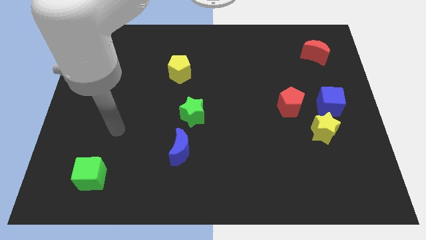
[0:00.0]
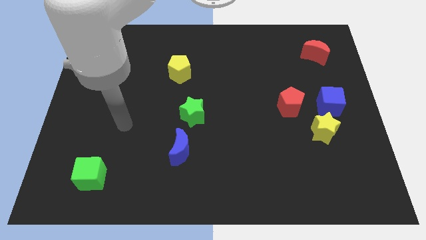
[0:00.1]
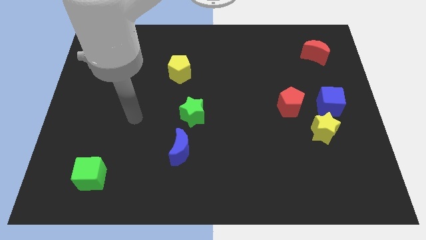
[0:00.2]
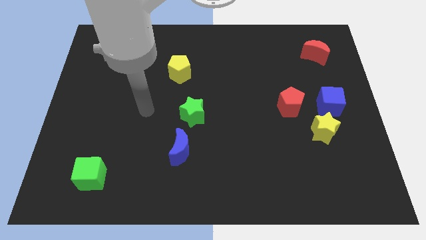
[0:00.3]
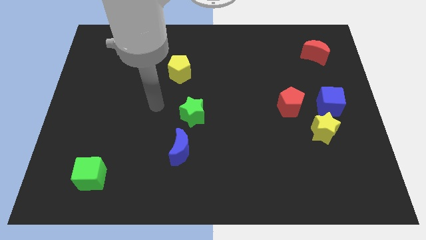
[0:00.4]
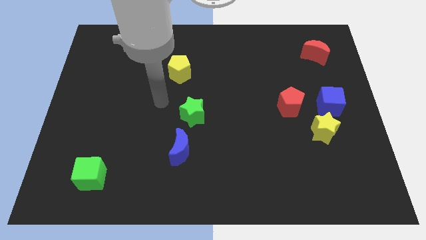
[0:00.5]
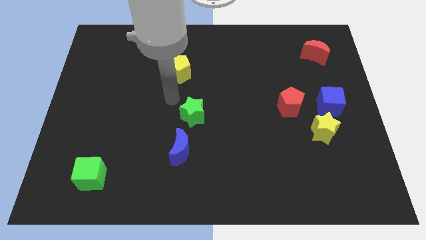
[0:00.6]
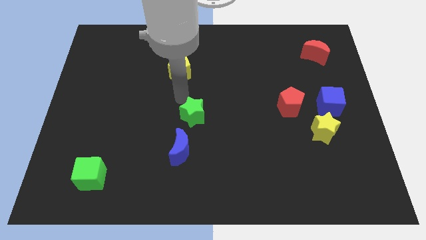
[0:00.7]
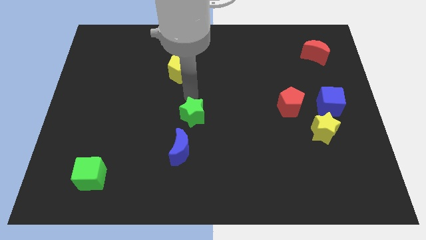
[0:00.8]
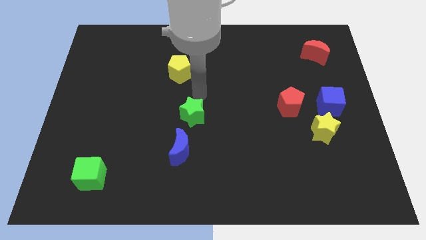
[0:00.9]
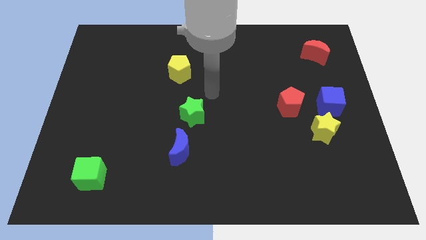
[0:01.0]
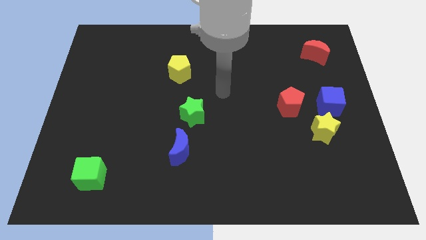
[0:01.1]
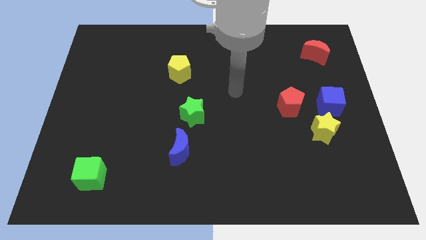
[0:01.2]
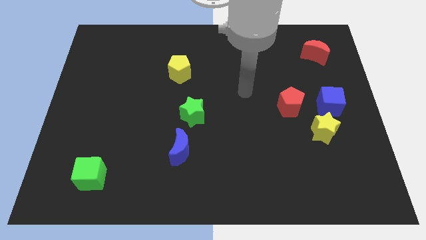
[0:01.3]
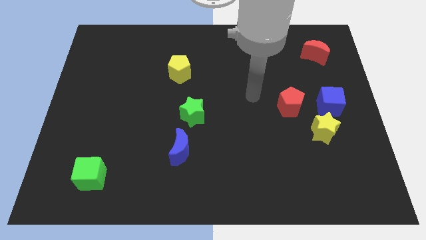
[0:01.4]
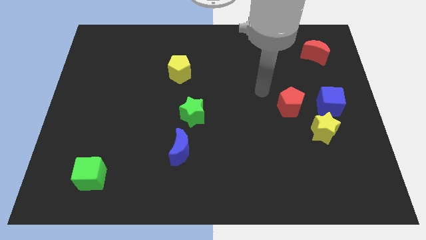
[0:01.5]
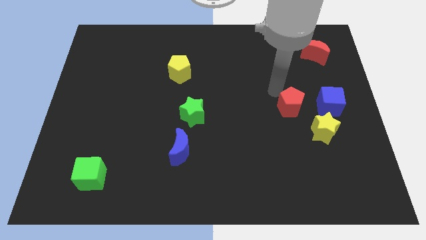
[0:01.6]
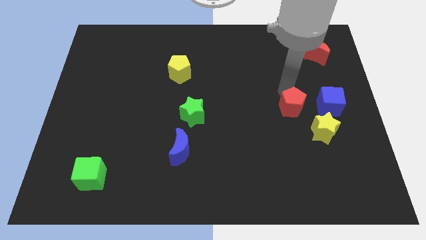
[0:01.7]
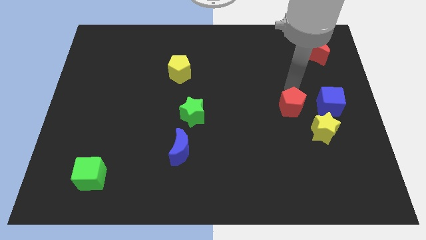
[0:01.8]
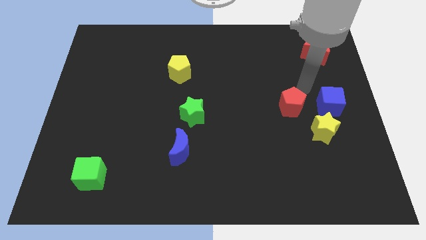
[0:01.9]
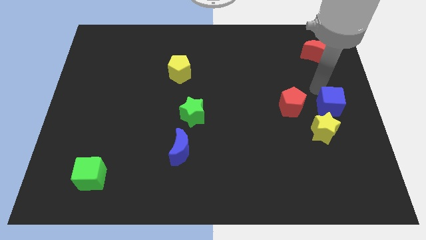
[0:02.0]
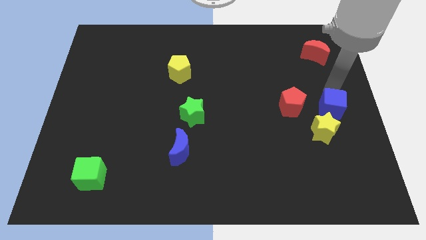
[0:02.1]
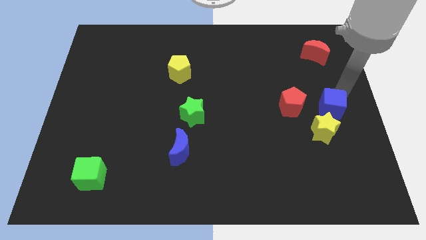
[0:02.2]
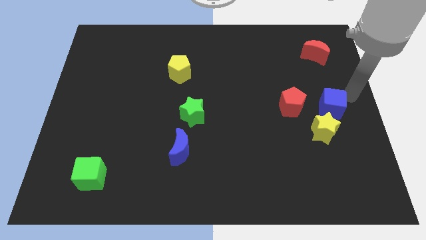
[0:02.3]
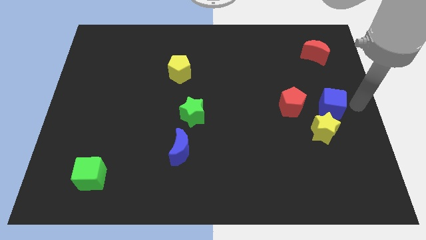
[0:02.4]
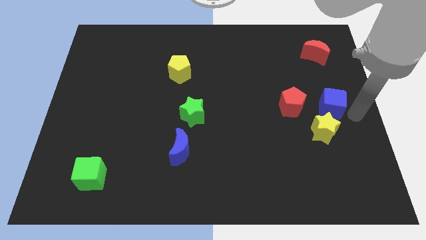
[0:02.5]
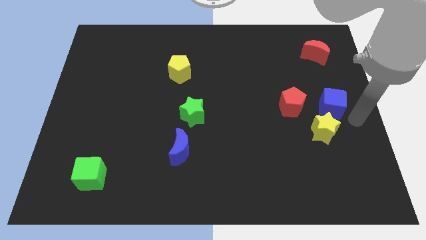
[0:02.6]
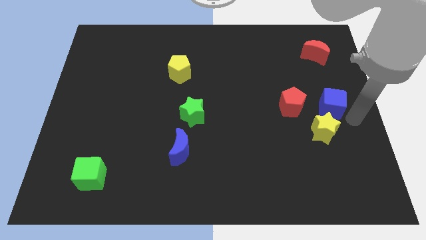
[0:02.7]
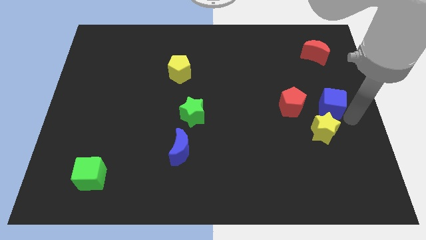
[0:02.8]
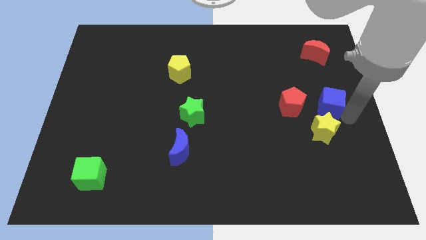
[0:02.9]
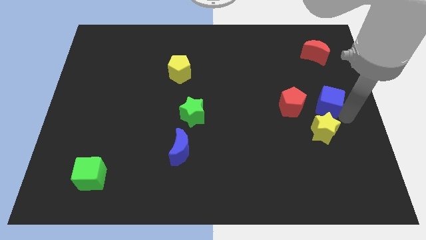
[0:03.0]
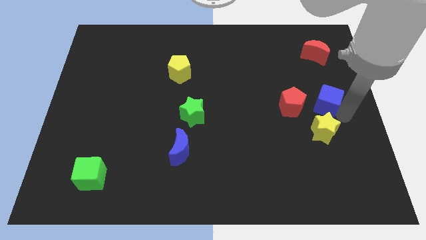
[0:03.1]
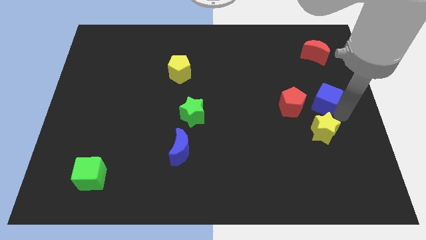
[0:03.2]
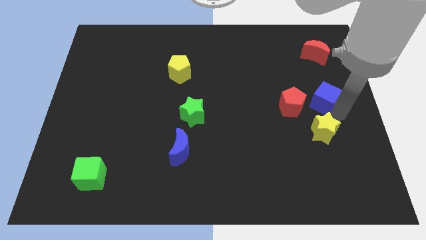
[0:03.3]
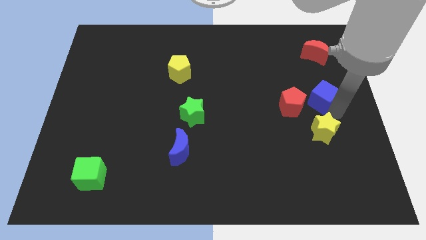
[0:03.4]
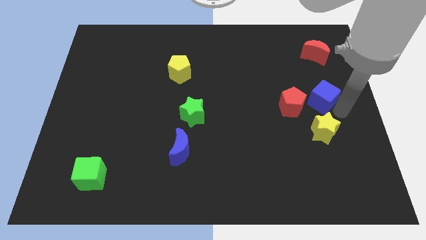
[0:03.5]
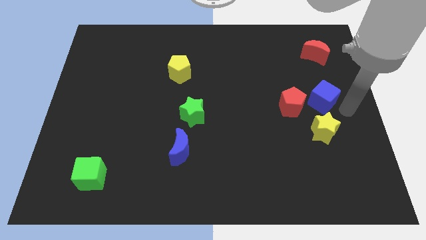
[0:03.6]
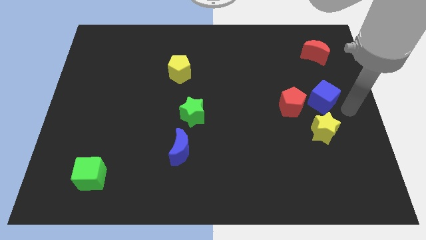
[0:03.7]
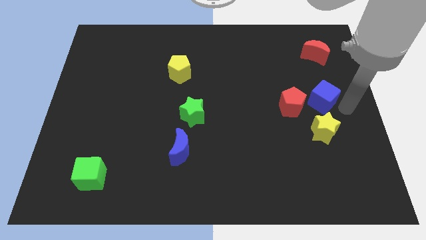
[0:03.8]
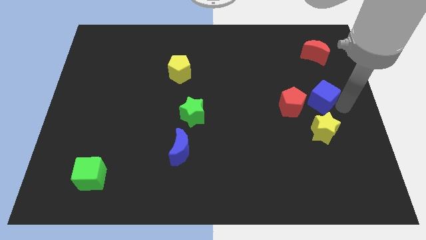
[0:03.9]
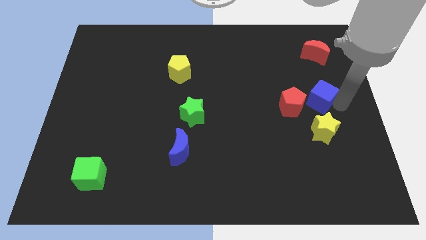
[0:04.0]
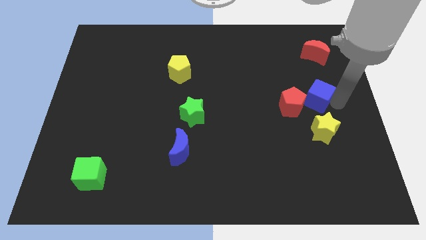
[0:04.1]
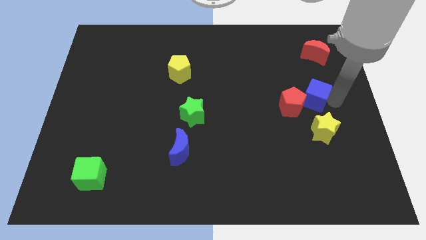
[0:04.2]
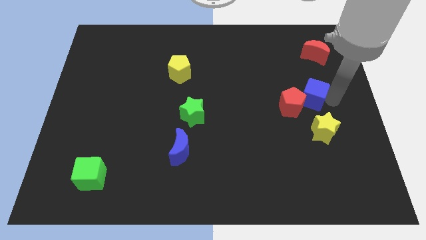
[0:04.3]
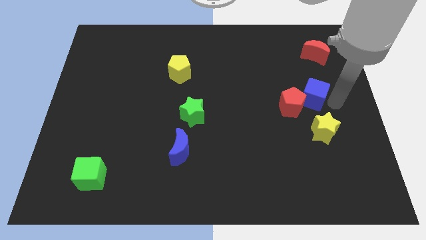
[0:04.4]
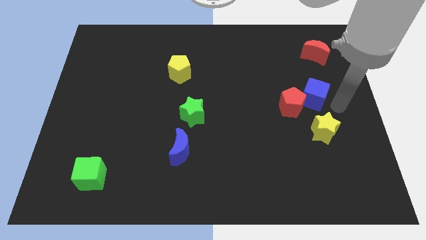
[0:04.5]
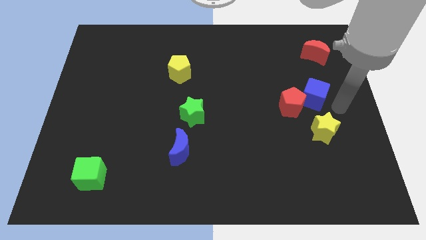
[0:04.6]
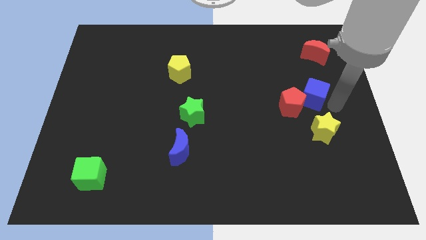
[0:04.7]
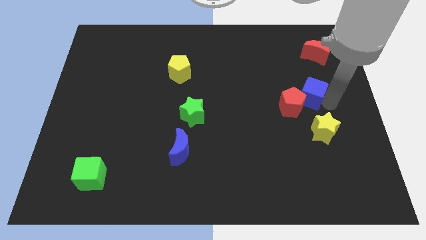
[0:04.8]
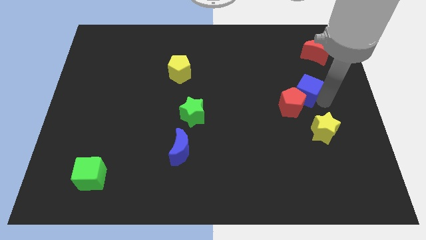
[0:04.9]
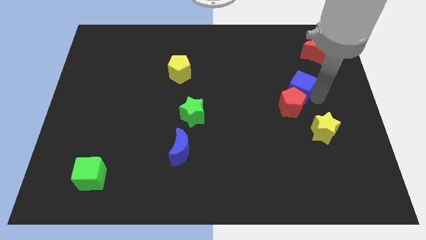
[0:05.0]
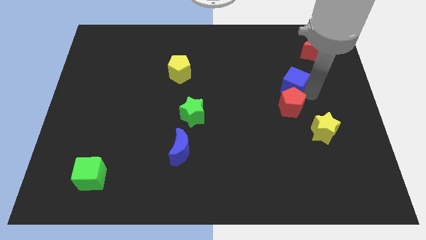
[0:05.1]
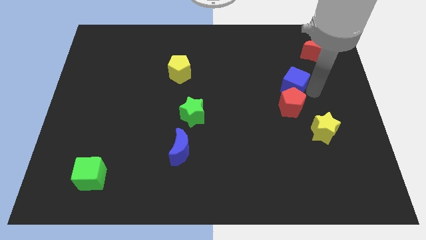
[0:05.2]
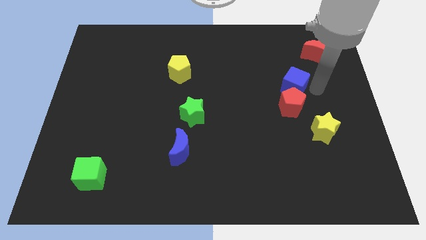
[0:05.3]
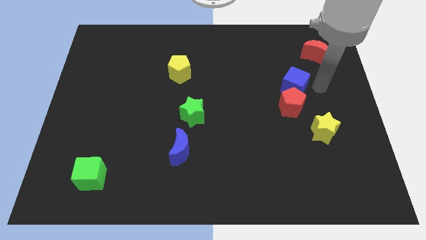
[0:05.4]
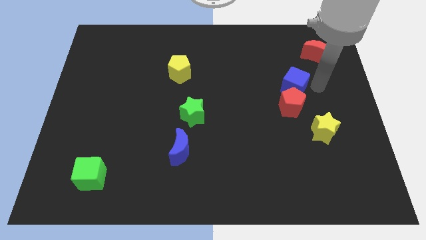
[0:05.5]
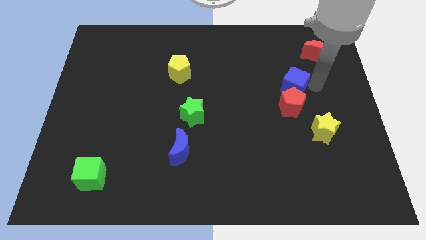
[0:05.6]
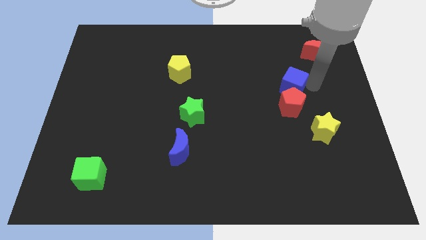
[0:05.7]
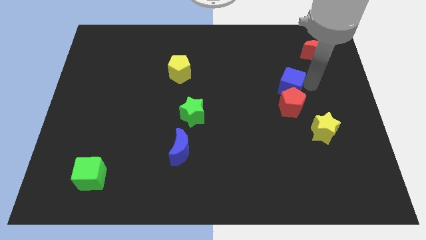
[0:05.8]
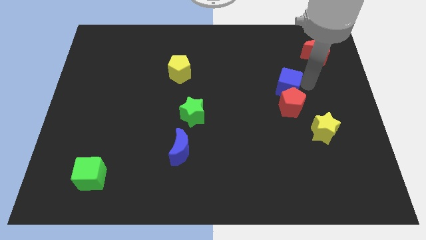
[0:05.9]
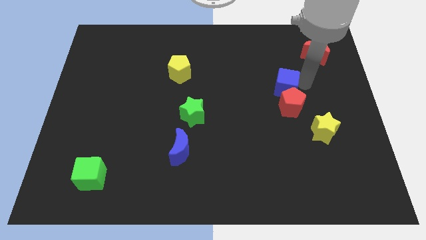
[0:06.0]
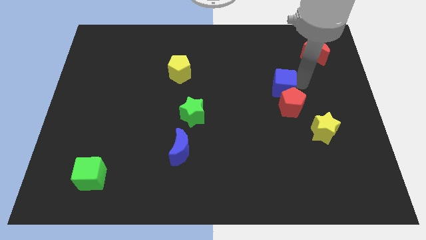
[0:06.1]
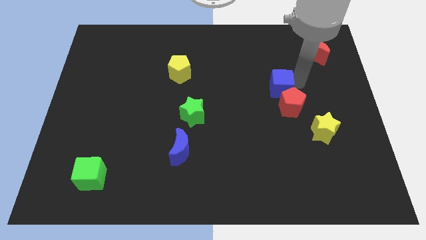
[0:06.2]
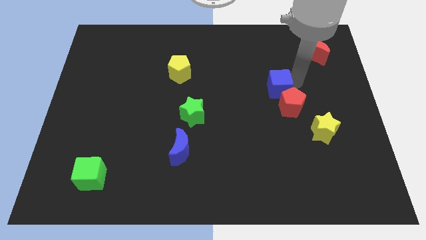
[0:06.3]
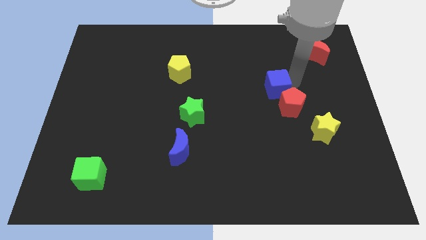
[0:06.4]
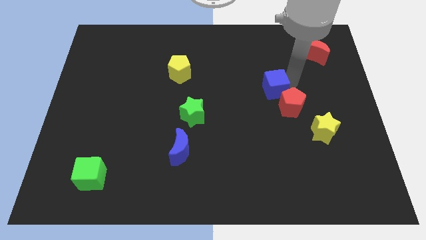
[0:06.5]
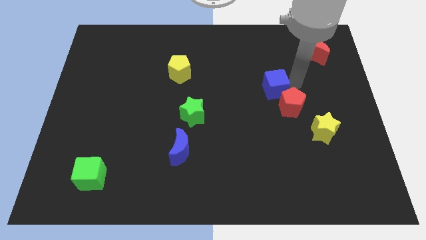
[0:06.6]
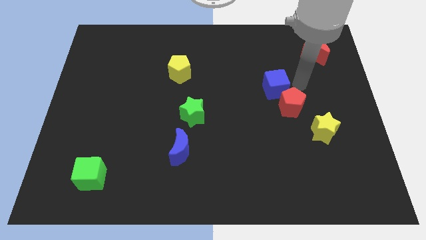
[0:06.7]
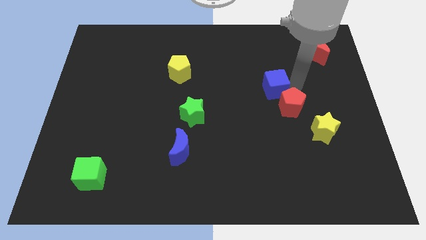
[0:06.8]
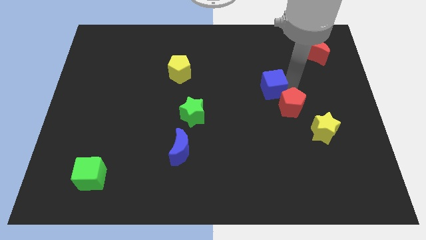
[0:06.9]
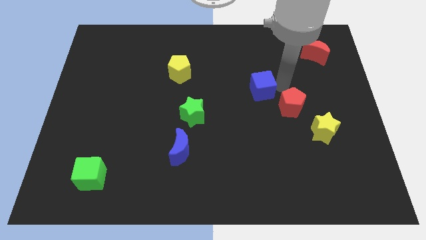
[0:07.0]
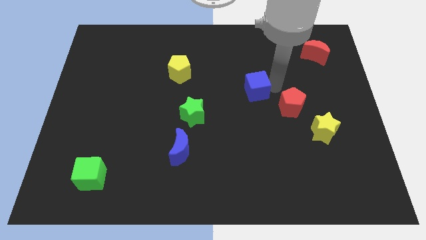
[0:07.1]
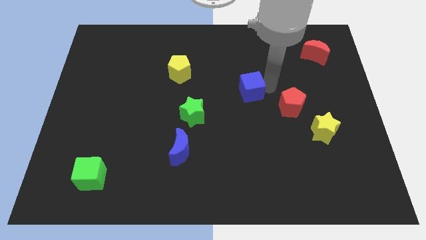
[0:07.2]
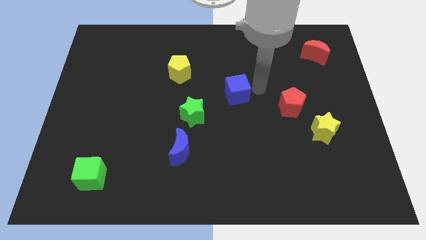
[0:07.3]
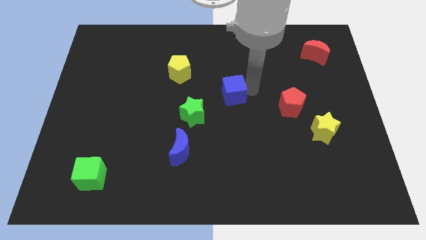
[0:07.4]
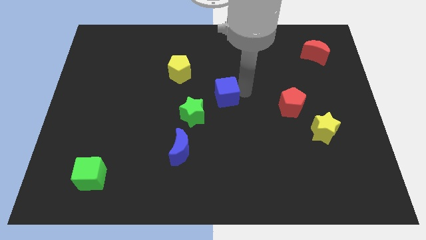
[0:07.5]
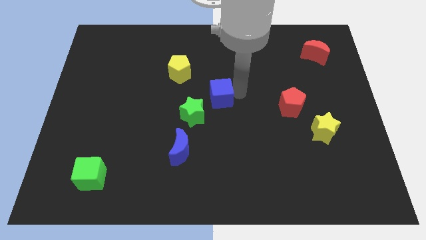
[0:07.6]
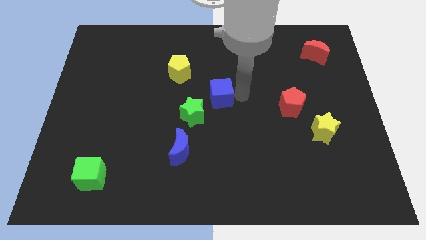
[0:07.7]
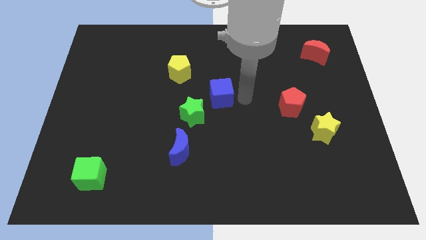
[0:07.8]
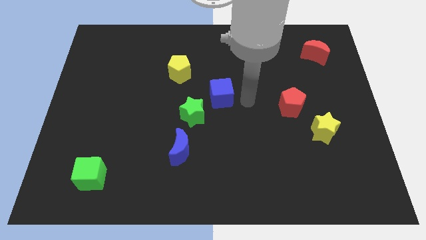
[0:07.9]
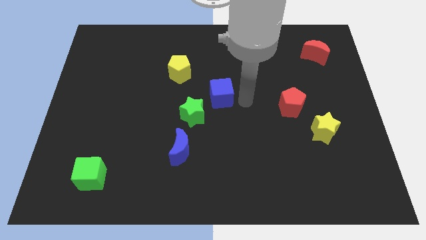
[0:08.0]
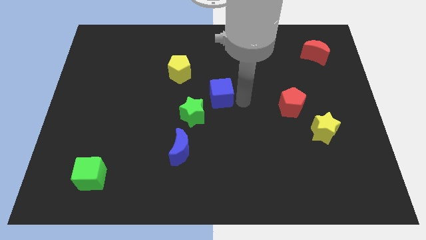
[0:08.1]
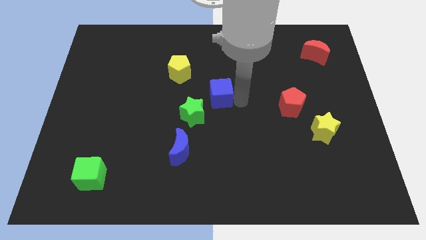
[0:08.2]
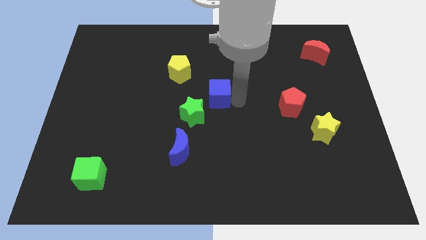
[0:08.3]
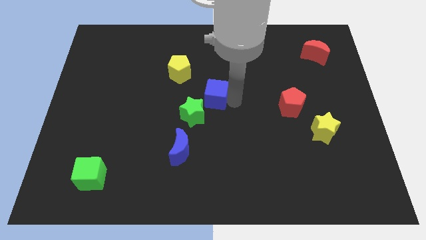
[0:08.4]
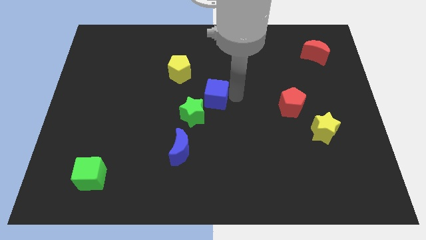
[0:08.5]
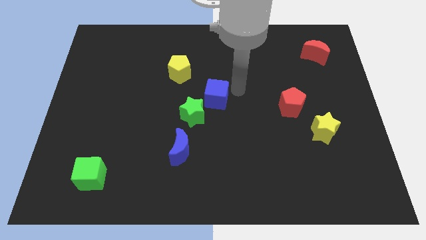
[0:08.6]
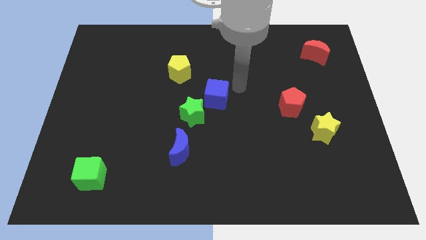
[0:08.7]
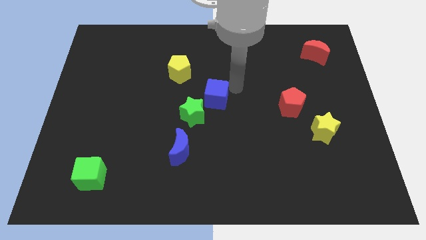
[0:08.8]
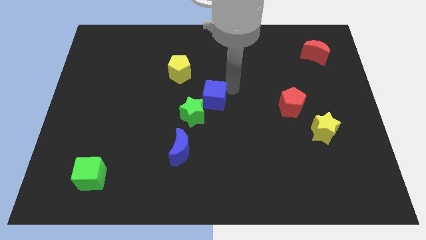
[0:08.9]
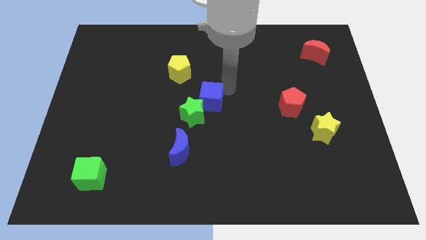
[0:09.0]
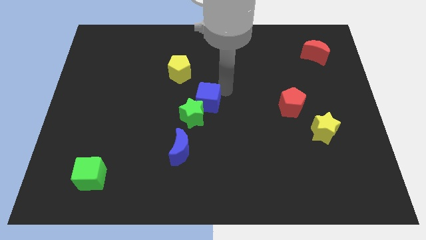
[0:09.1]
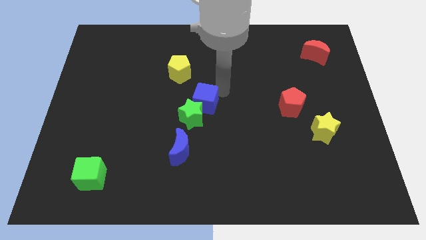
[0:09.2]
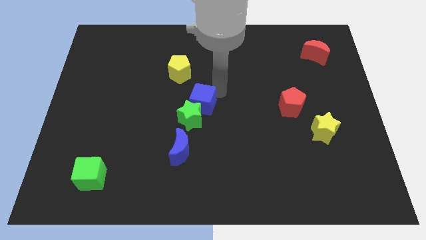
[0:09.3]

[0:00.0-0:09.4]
move the blue cube above the blue moon
